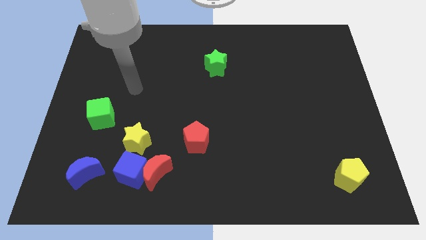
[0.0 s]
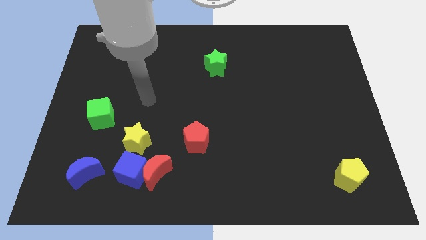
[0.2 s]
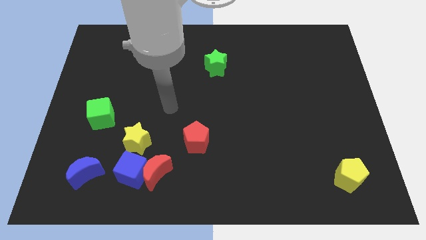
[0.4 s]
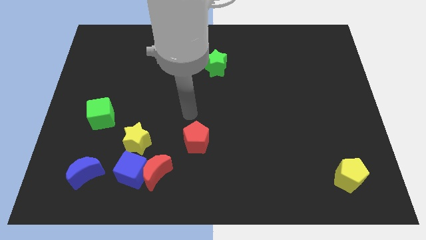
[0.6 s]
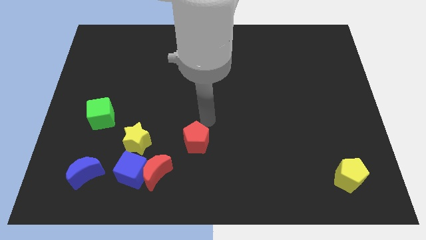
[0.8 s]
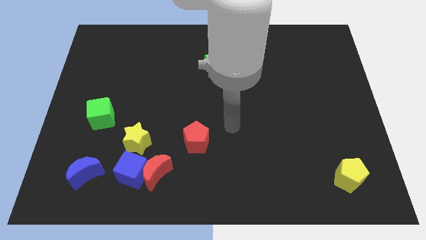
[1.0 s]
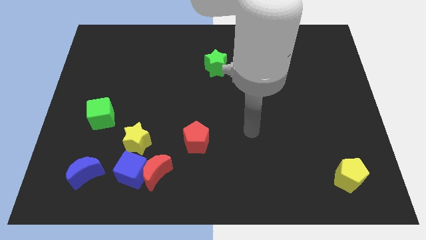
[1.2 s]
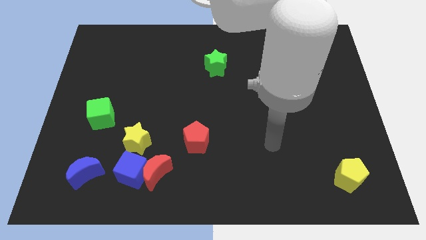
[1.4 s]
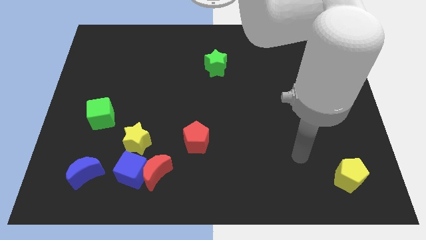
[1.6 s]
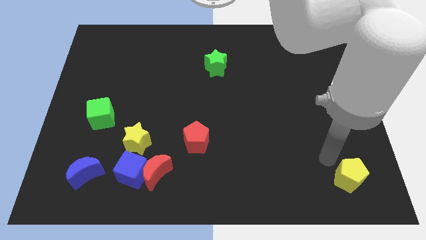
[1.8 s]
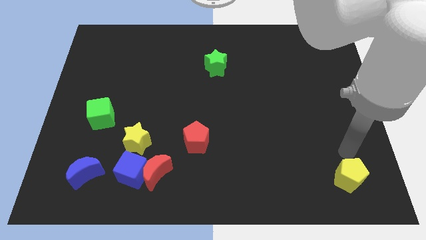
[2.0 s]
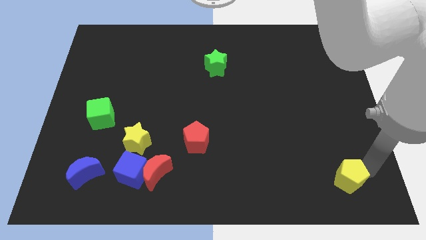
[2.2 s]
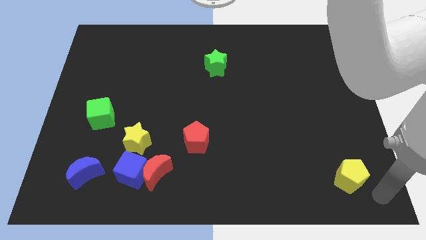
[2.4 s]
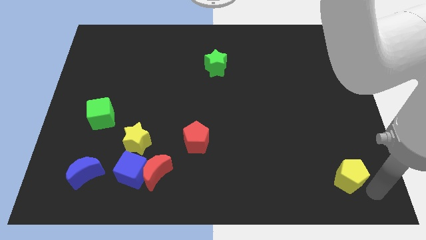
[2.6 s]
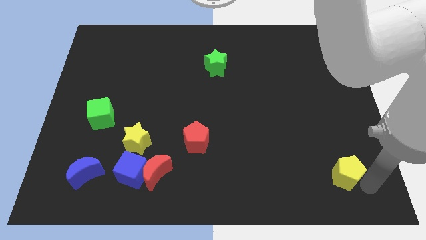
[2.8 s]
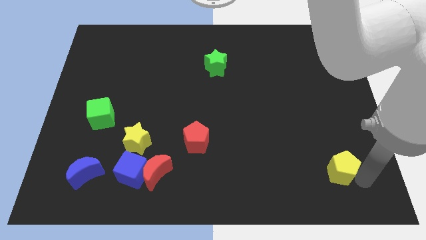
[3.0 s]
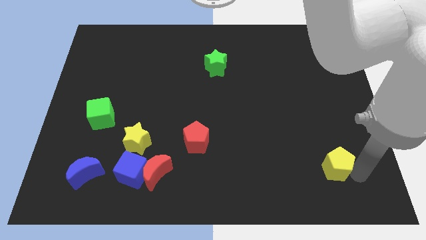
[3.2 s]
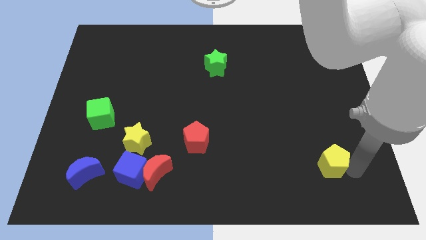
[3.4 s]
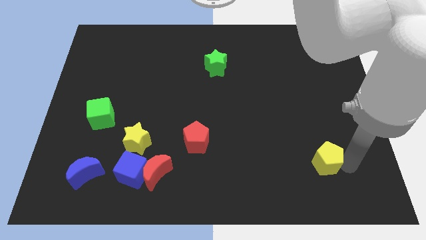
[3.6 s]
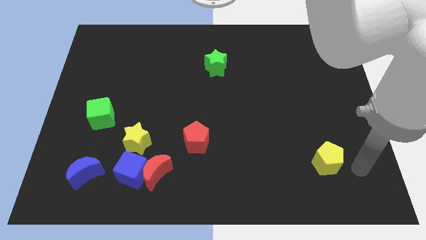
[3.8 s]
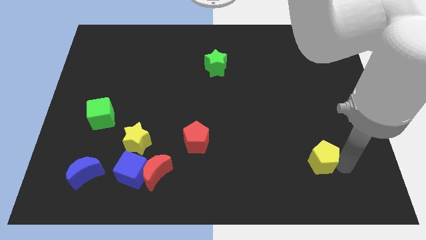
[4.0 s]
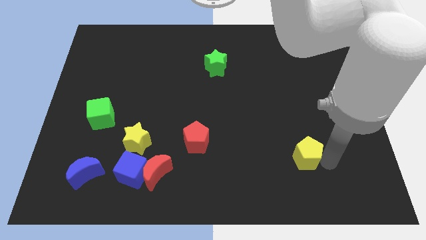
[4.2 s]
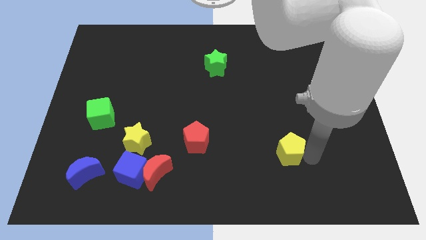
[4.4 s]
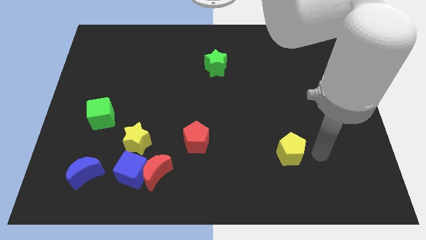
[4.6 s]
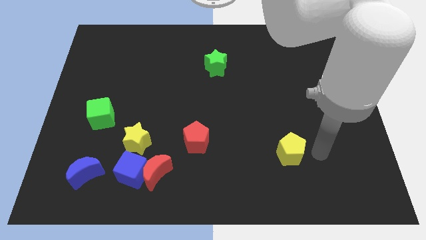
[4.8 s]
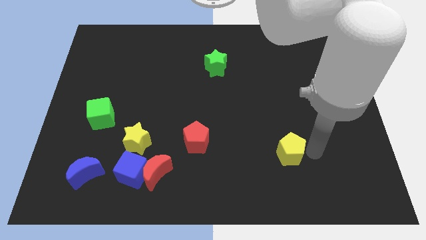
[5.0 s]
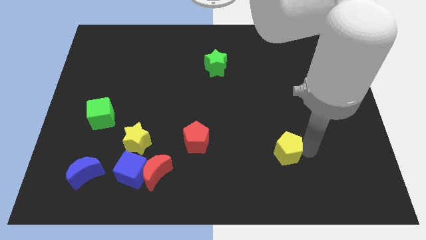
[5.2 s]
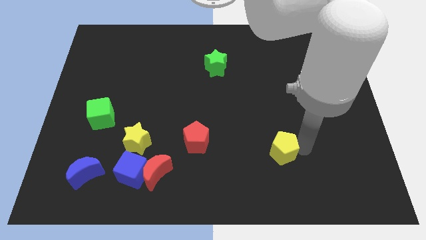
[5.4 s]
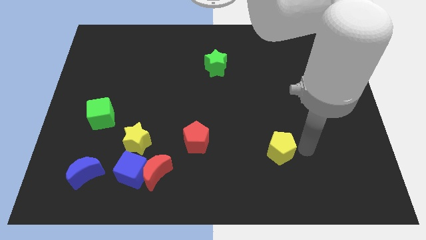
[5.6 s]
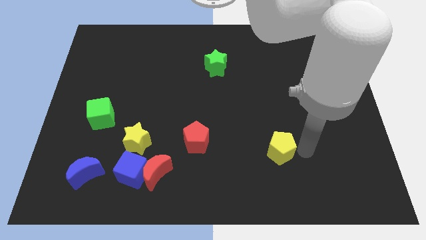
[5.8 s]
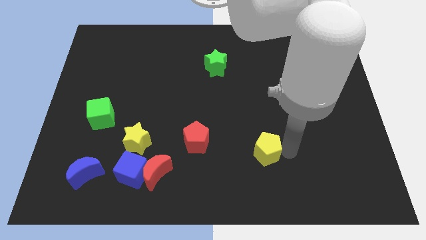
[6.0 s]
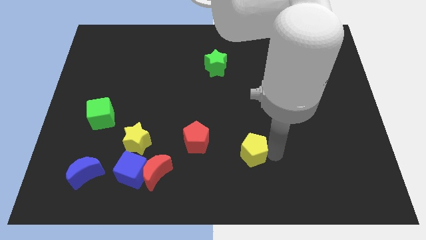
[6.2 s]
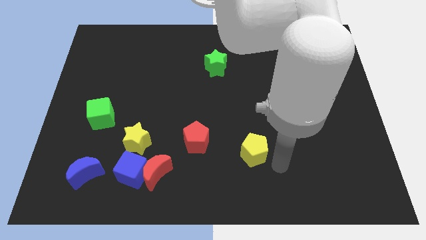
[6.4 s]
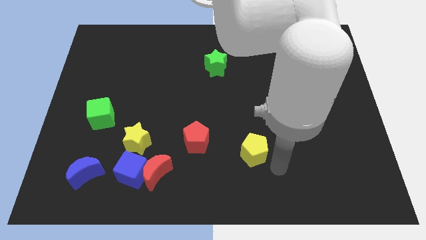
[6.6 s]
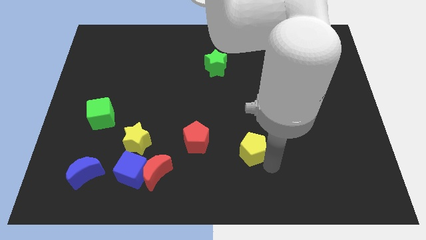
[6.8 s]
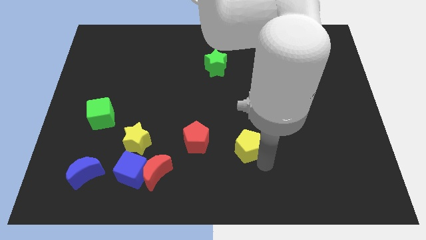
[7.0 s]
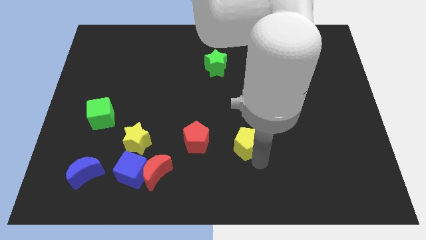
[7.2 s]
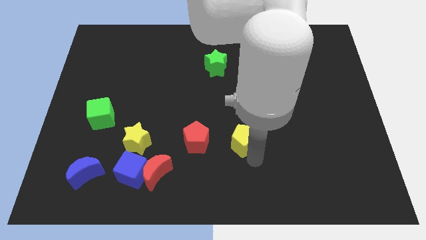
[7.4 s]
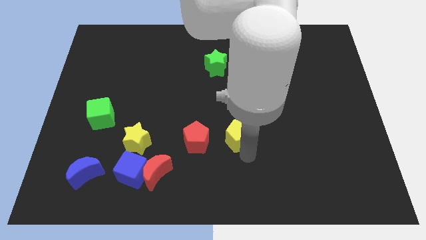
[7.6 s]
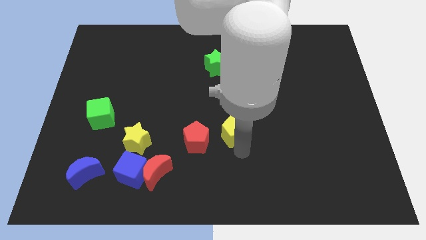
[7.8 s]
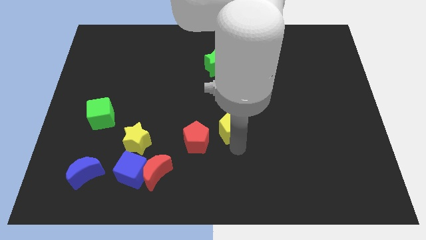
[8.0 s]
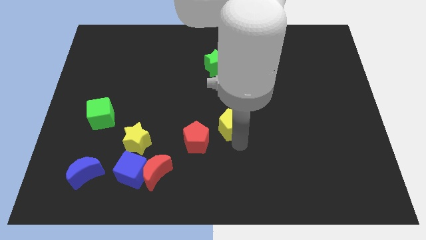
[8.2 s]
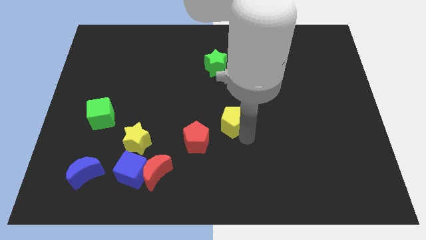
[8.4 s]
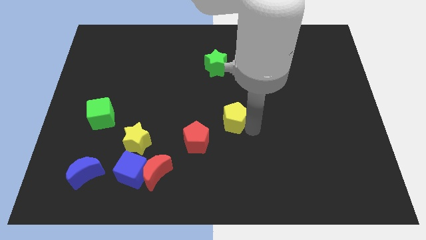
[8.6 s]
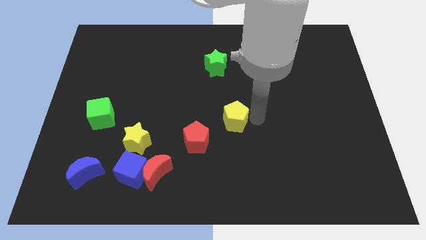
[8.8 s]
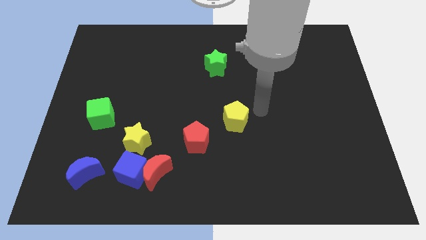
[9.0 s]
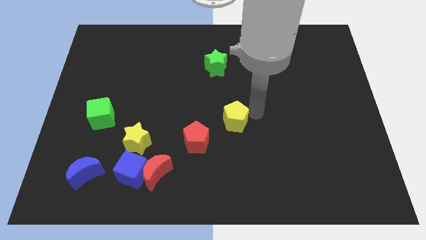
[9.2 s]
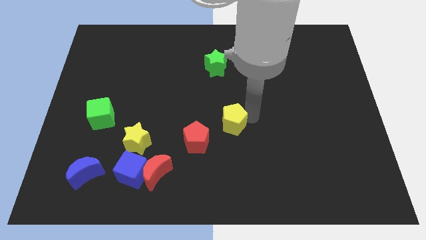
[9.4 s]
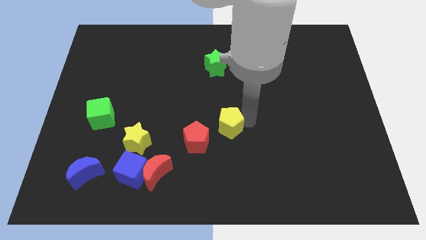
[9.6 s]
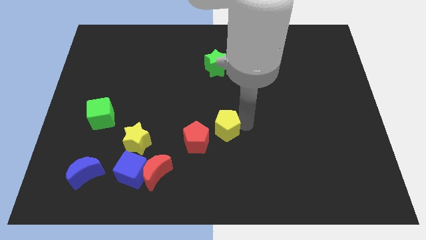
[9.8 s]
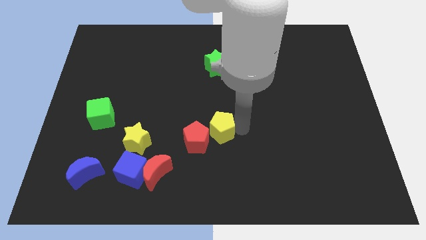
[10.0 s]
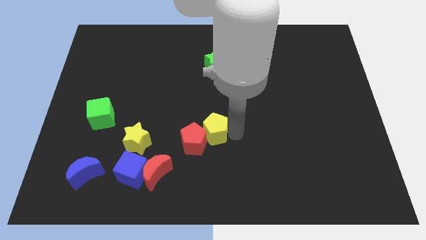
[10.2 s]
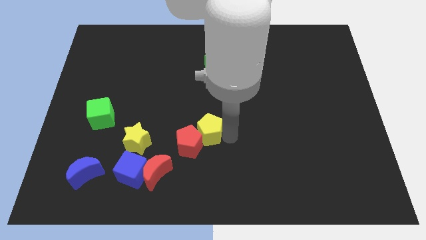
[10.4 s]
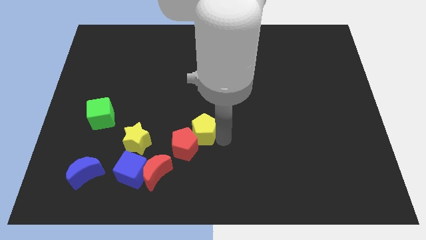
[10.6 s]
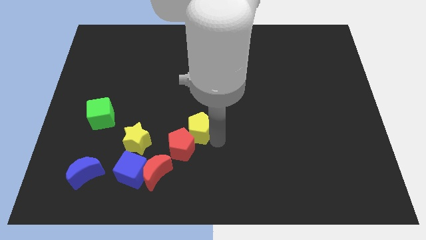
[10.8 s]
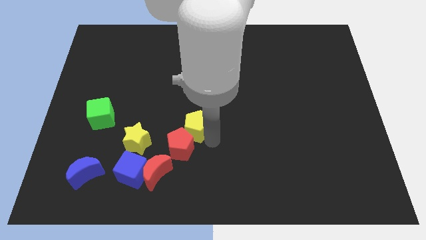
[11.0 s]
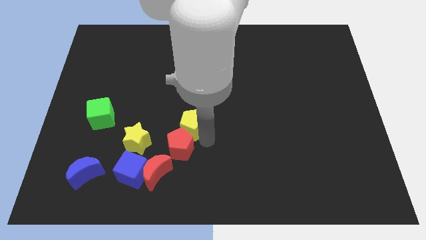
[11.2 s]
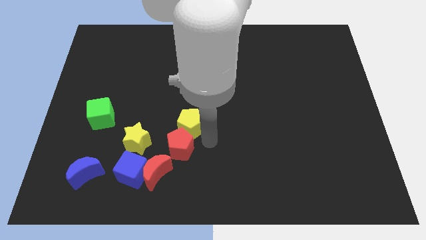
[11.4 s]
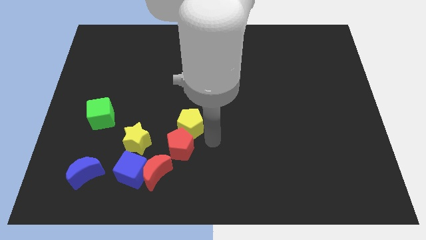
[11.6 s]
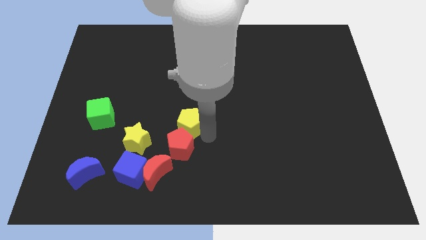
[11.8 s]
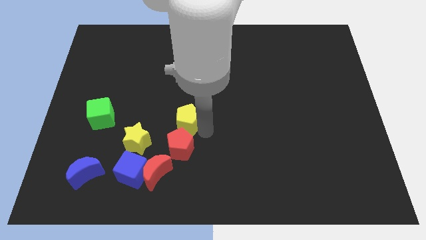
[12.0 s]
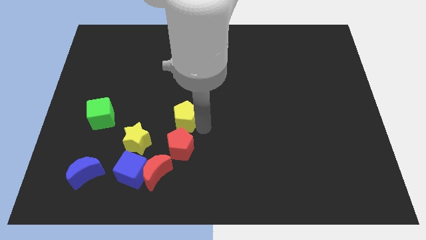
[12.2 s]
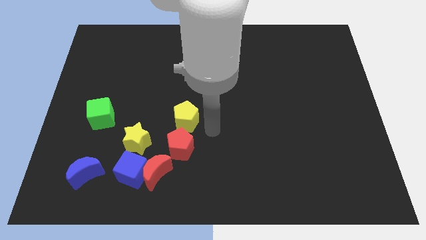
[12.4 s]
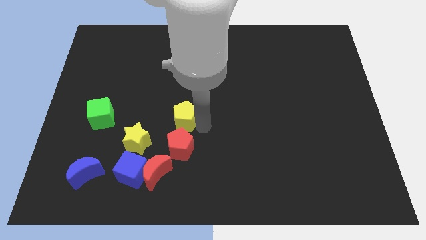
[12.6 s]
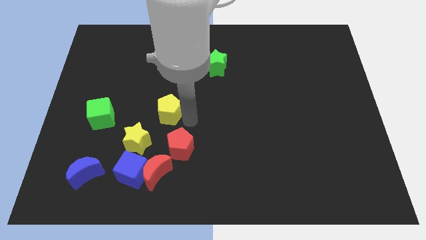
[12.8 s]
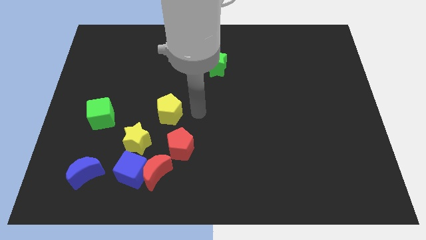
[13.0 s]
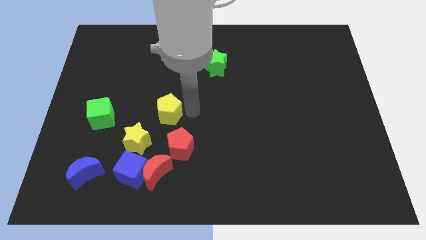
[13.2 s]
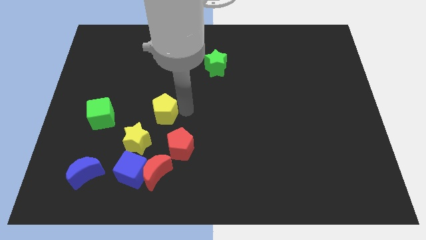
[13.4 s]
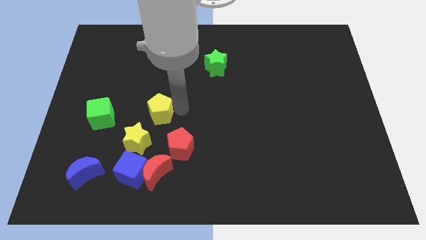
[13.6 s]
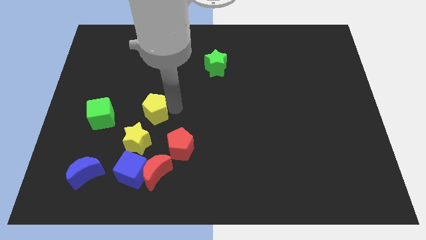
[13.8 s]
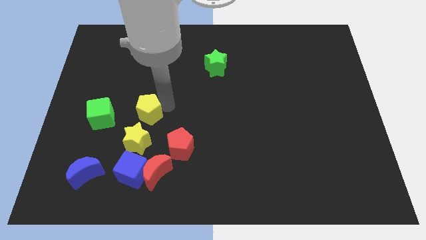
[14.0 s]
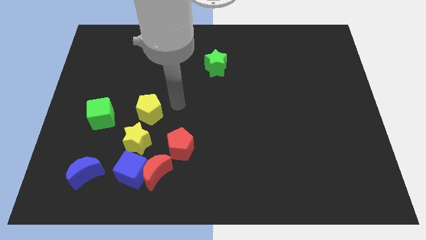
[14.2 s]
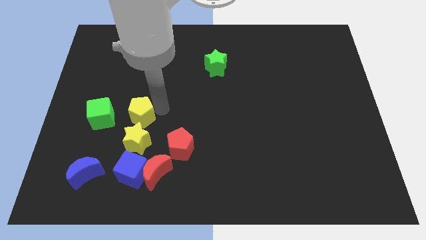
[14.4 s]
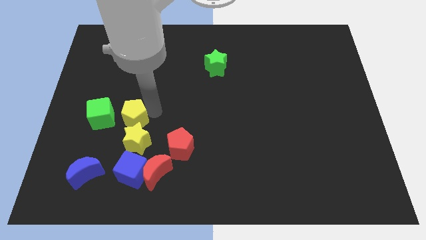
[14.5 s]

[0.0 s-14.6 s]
put the yellow pentagon diagonally up and to the left of the yellow star
